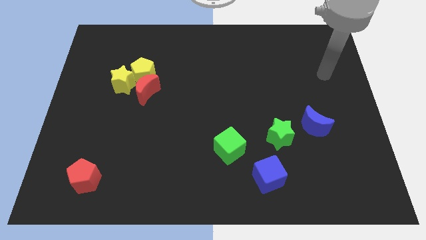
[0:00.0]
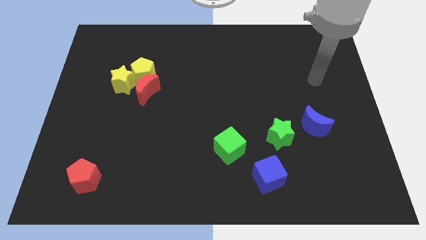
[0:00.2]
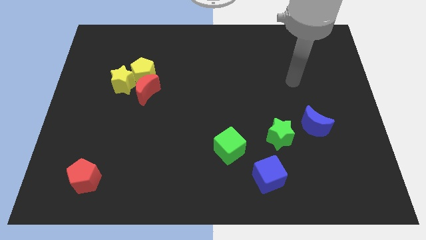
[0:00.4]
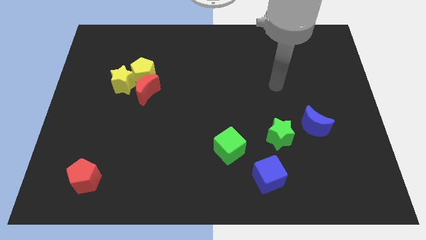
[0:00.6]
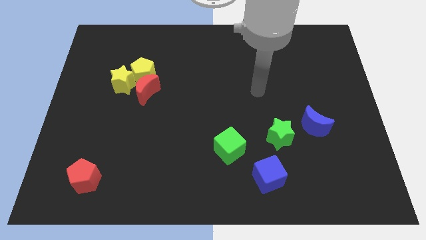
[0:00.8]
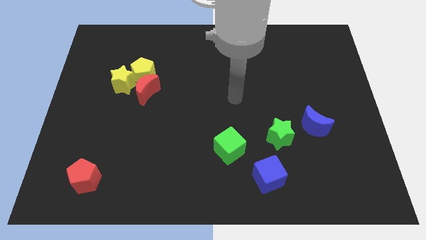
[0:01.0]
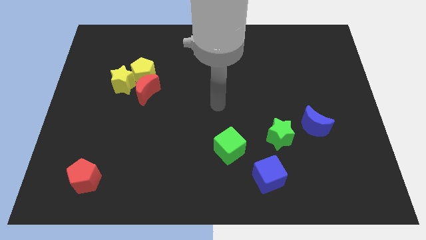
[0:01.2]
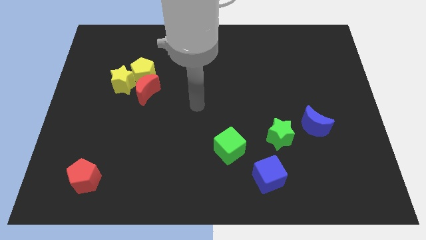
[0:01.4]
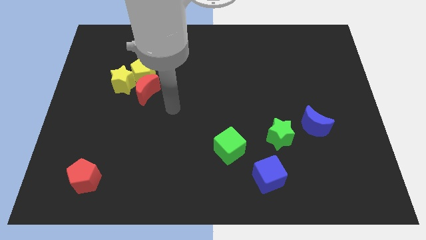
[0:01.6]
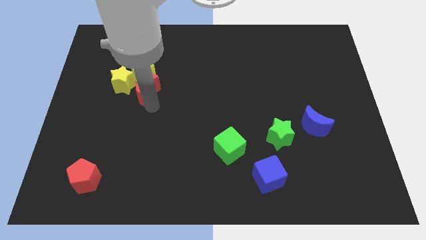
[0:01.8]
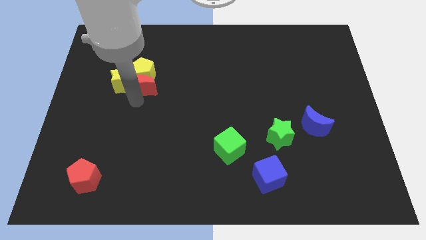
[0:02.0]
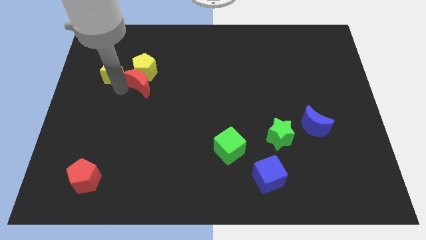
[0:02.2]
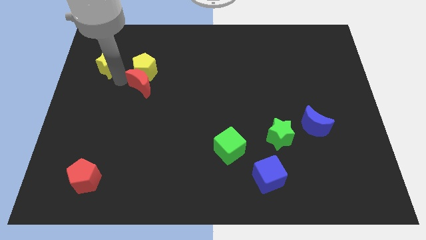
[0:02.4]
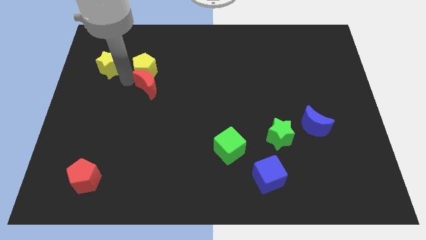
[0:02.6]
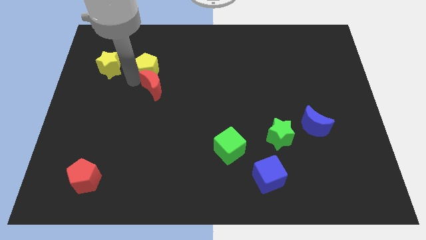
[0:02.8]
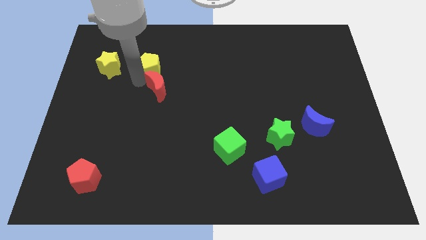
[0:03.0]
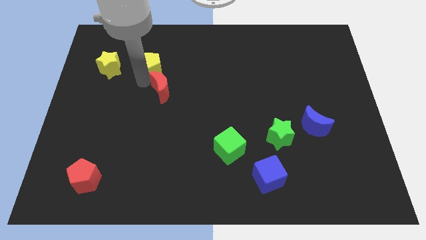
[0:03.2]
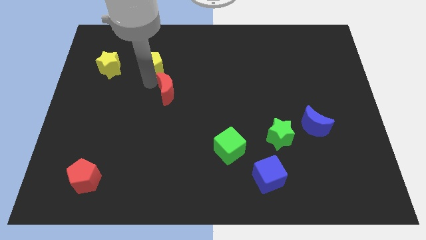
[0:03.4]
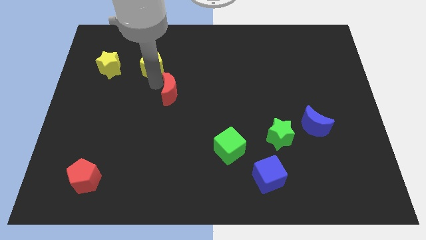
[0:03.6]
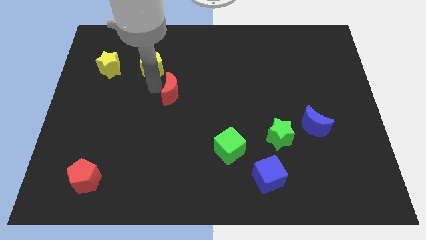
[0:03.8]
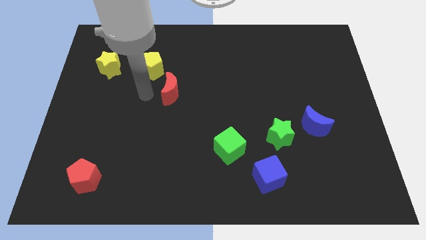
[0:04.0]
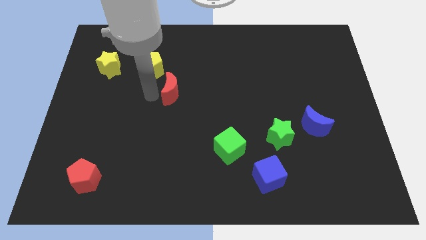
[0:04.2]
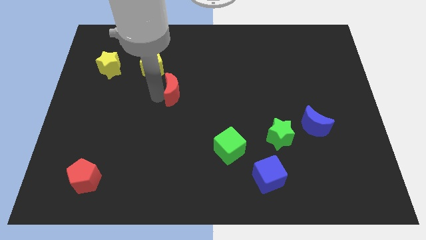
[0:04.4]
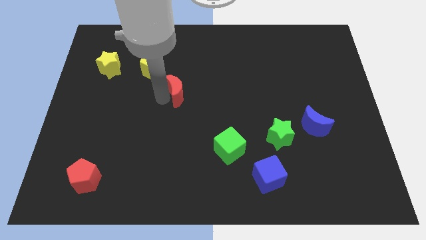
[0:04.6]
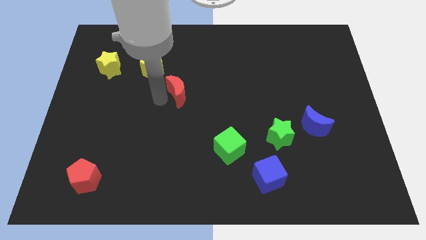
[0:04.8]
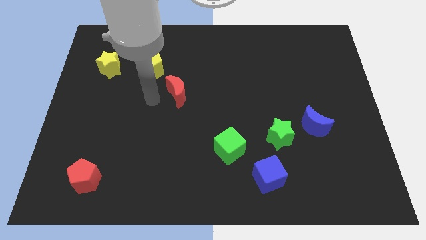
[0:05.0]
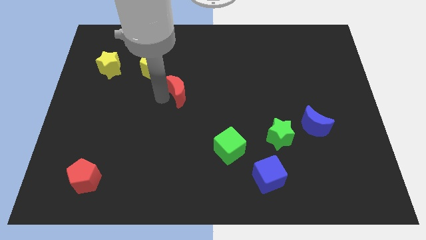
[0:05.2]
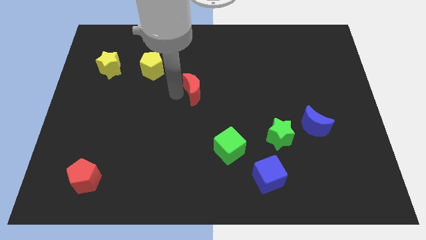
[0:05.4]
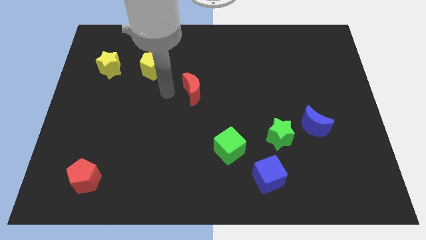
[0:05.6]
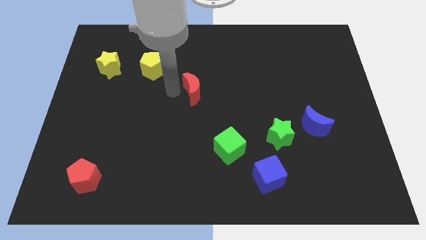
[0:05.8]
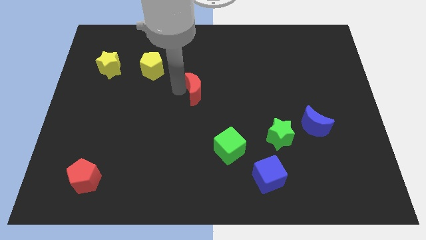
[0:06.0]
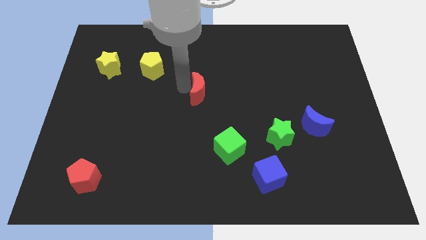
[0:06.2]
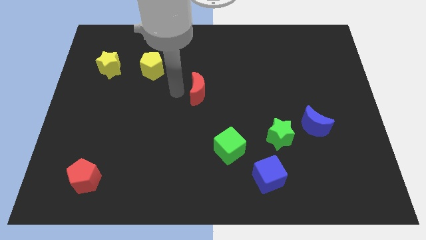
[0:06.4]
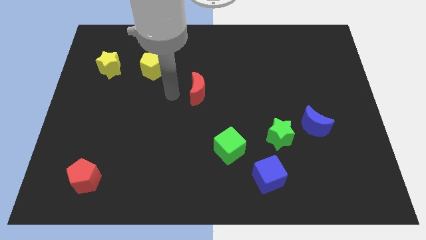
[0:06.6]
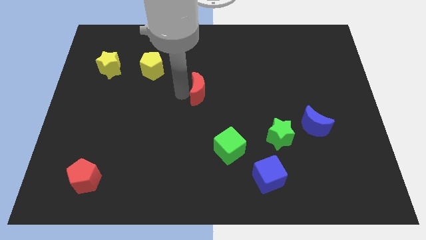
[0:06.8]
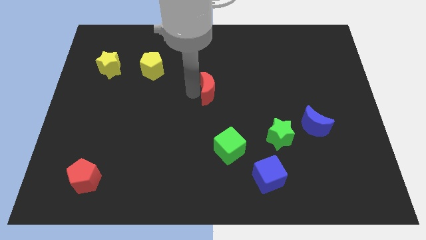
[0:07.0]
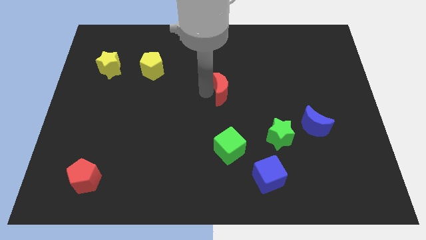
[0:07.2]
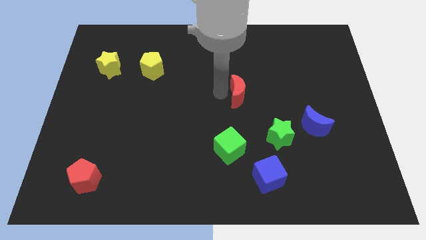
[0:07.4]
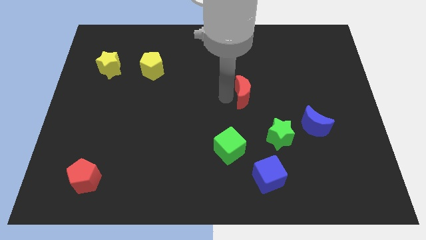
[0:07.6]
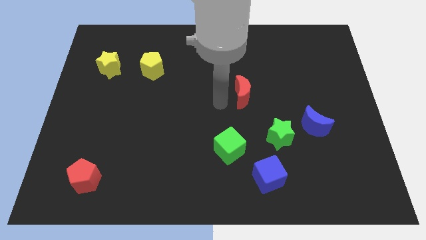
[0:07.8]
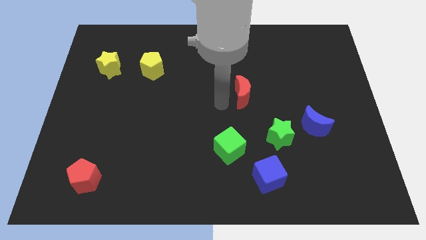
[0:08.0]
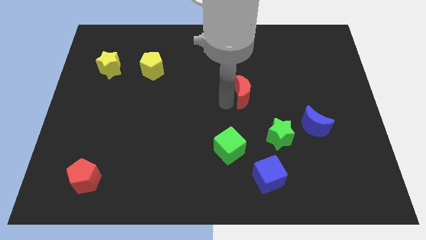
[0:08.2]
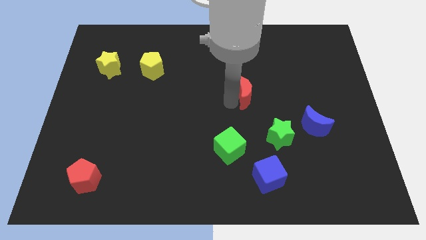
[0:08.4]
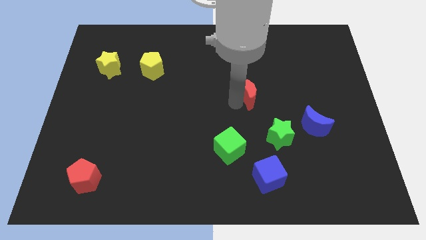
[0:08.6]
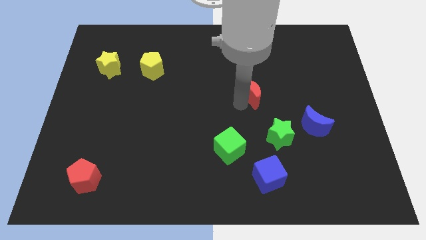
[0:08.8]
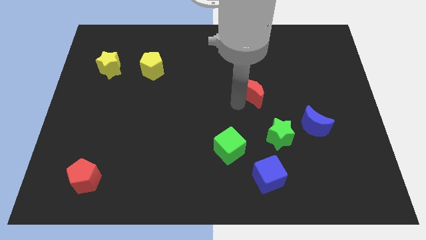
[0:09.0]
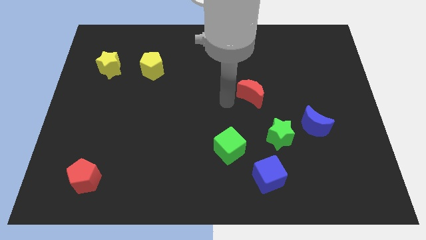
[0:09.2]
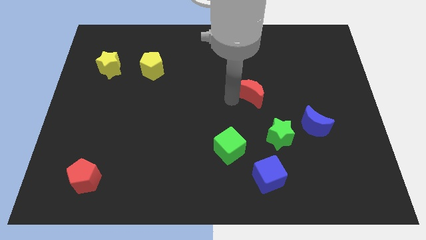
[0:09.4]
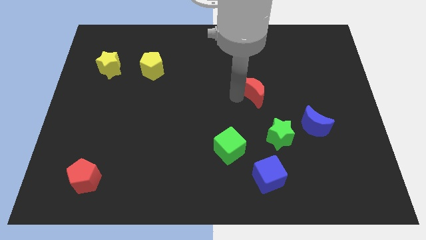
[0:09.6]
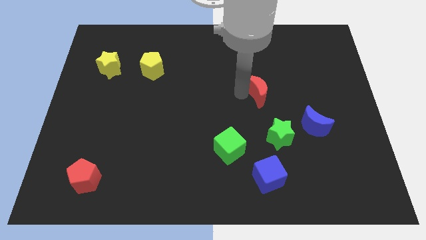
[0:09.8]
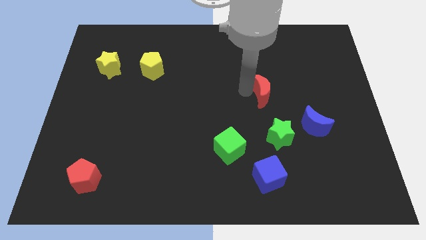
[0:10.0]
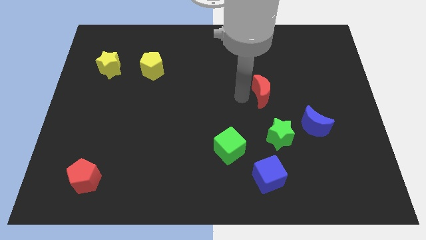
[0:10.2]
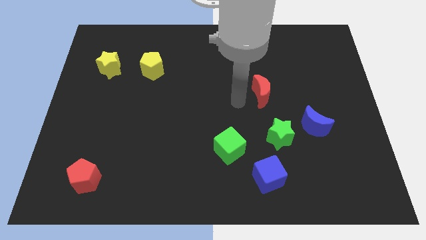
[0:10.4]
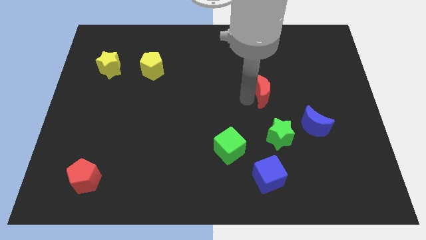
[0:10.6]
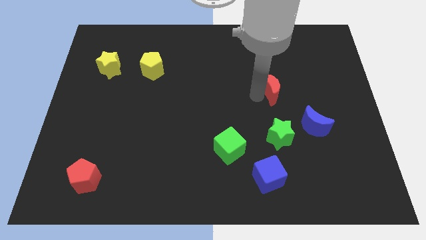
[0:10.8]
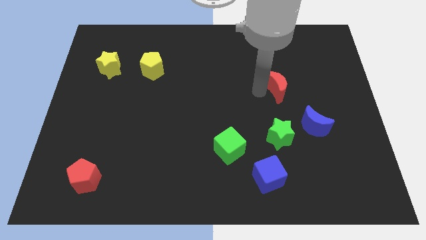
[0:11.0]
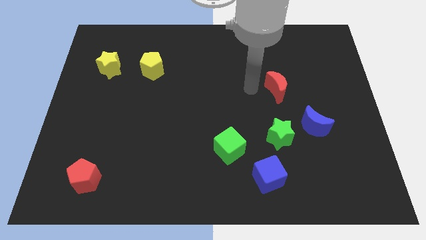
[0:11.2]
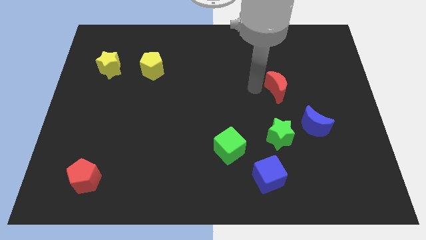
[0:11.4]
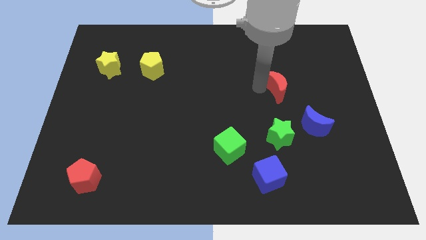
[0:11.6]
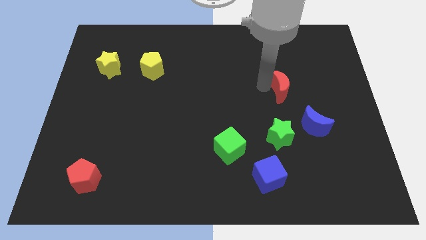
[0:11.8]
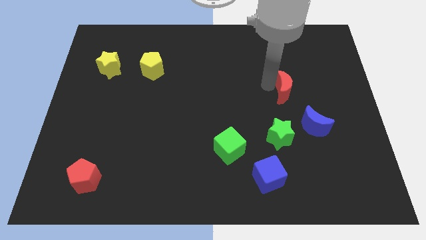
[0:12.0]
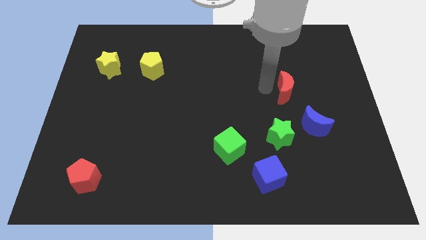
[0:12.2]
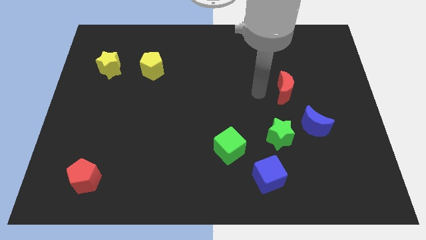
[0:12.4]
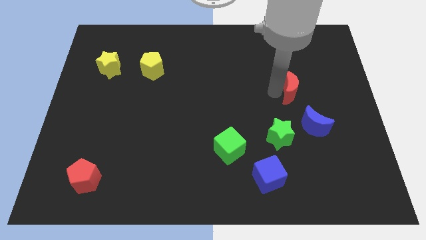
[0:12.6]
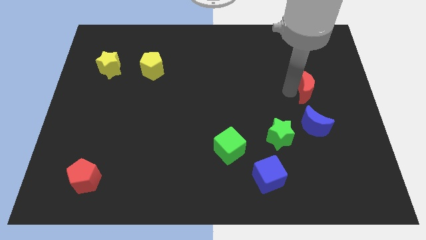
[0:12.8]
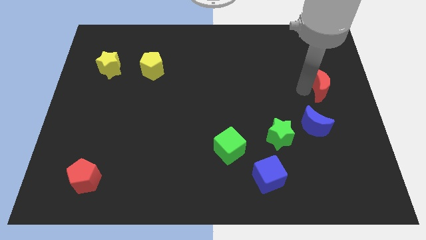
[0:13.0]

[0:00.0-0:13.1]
move the red moon to the right side of the board

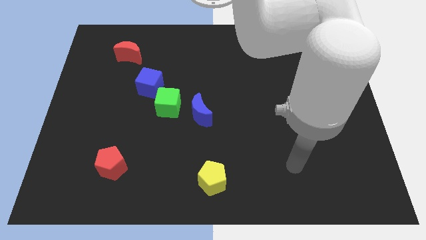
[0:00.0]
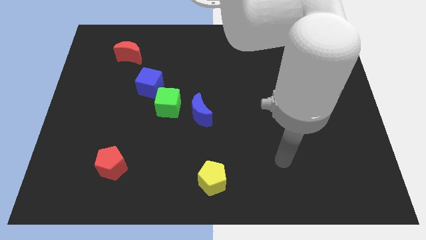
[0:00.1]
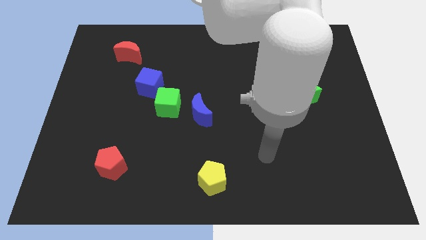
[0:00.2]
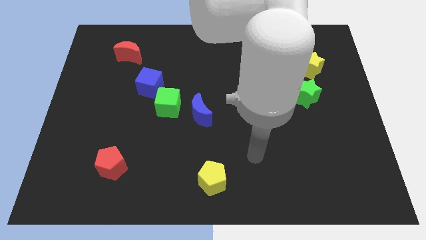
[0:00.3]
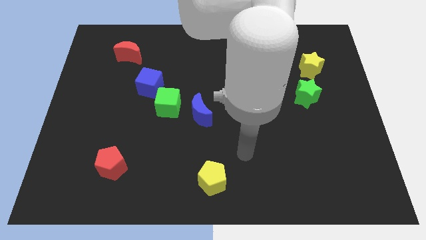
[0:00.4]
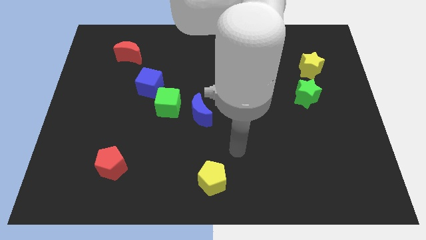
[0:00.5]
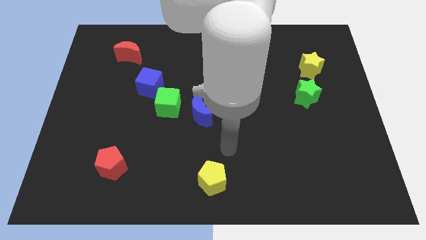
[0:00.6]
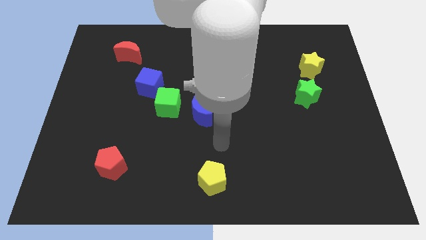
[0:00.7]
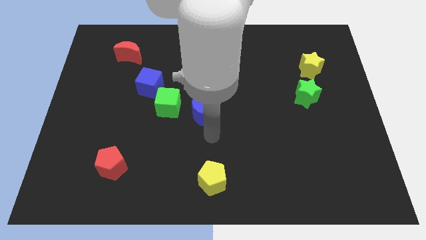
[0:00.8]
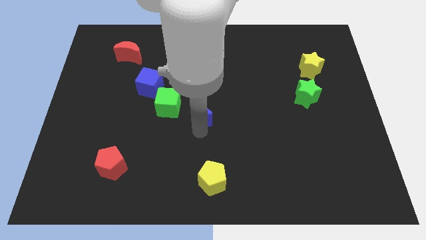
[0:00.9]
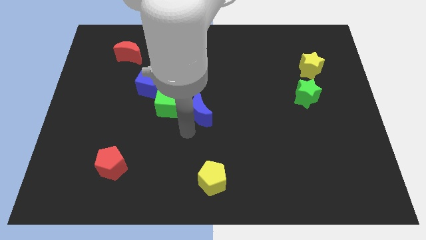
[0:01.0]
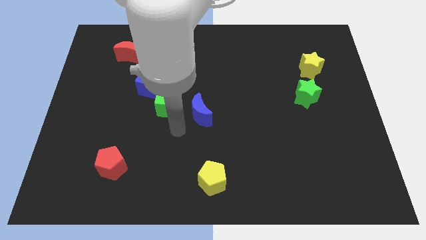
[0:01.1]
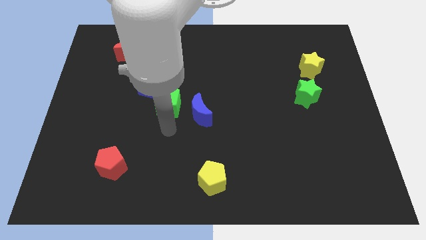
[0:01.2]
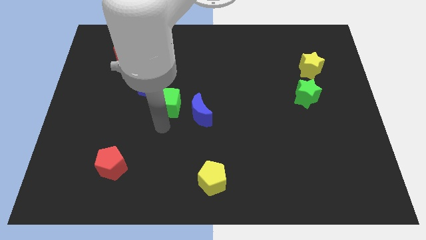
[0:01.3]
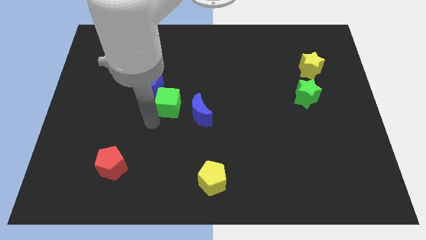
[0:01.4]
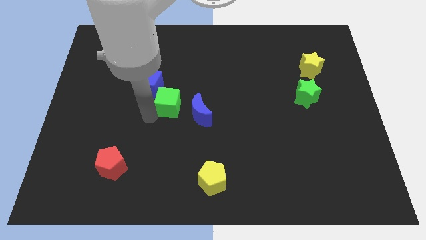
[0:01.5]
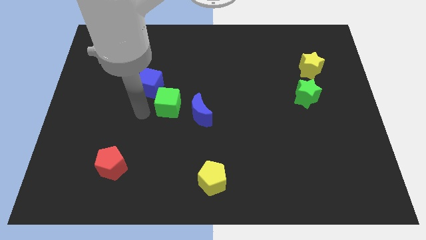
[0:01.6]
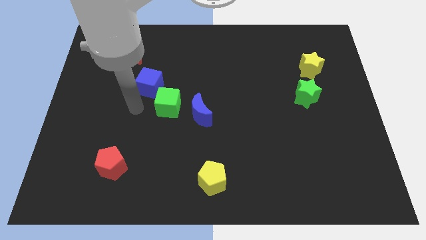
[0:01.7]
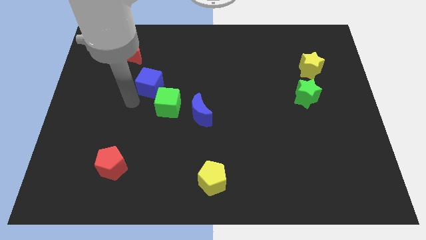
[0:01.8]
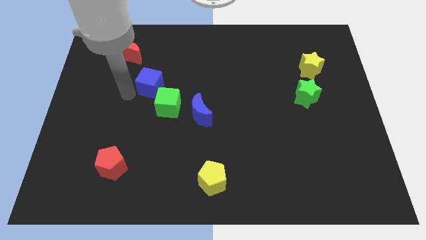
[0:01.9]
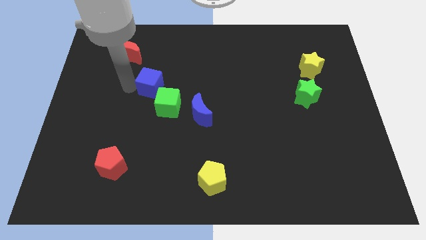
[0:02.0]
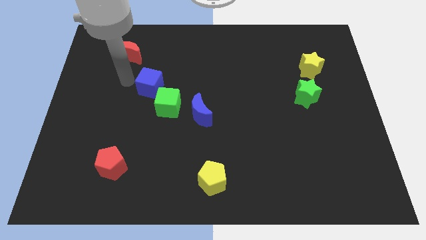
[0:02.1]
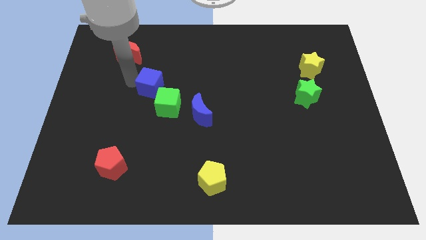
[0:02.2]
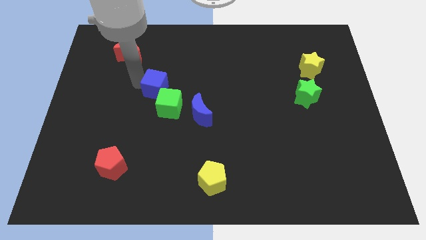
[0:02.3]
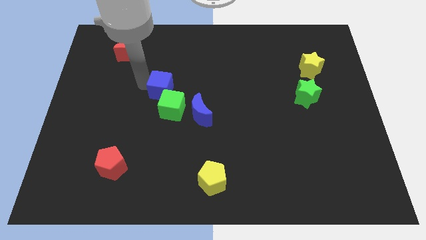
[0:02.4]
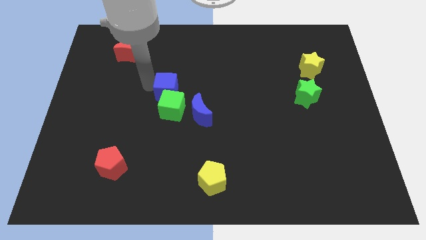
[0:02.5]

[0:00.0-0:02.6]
slide the blue cube to the middle
